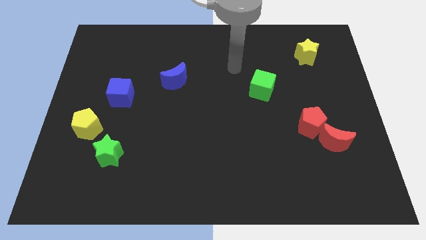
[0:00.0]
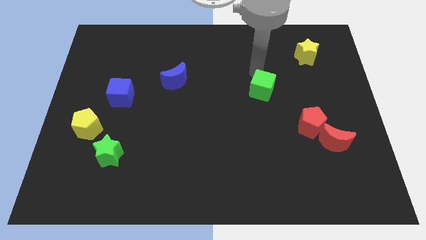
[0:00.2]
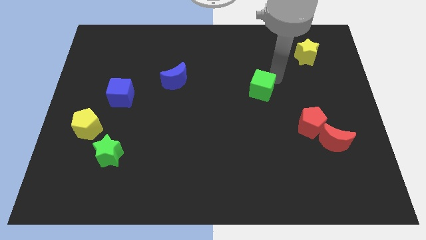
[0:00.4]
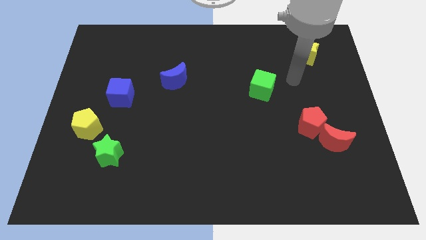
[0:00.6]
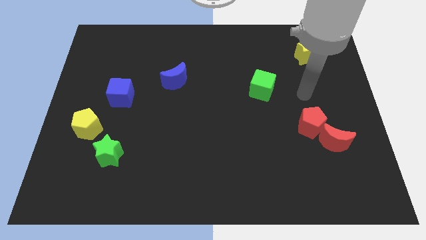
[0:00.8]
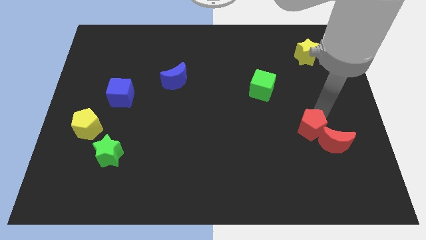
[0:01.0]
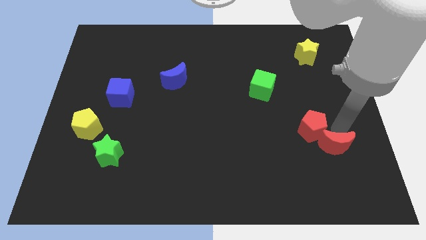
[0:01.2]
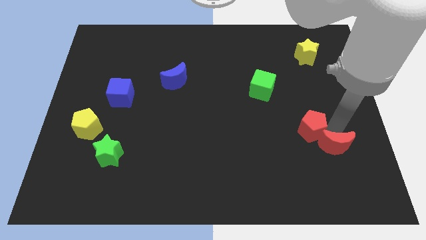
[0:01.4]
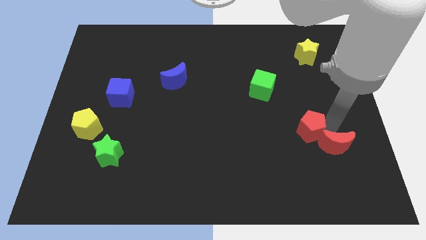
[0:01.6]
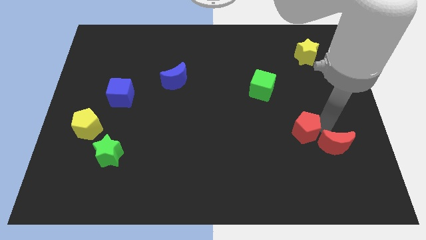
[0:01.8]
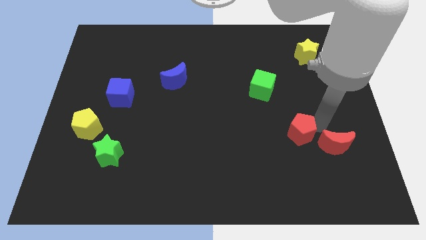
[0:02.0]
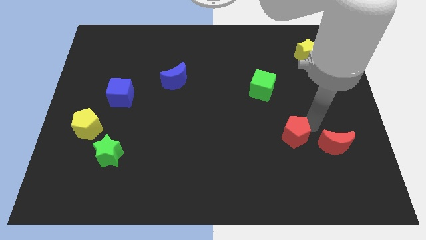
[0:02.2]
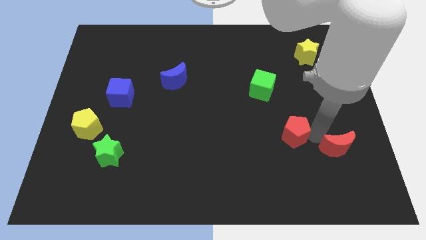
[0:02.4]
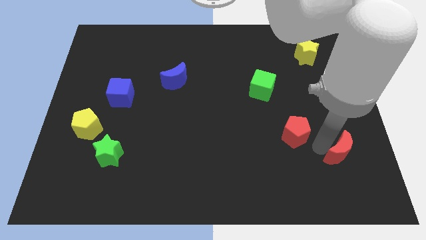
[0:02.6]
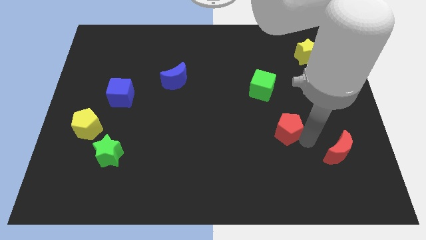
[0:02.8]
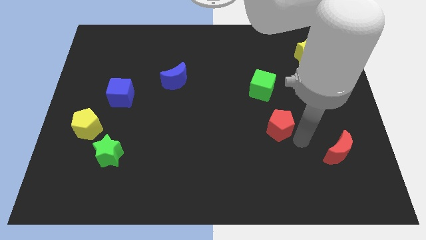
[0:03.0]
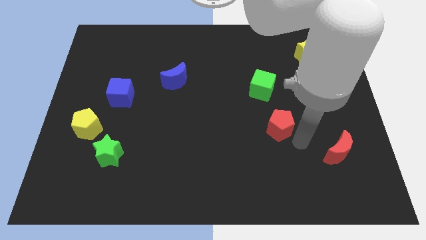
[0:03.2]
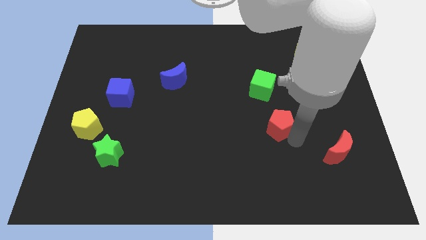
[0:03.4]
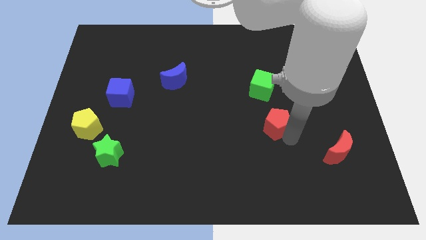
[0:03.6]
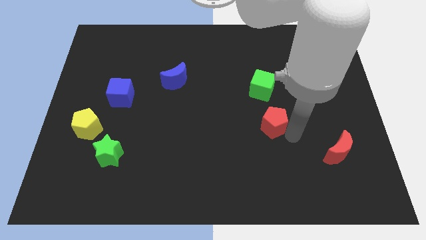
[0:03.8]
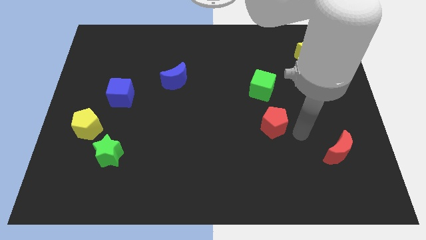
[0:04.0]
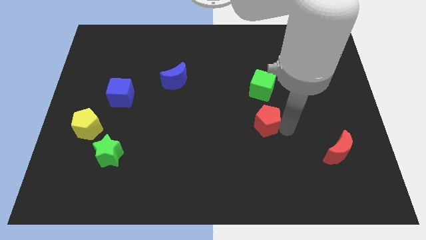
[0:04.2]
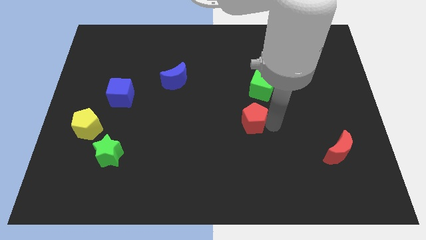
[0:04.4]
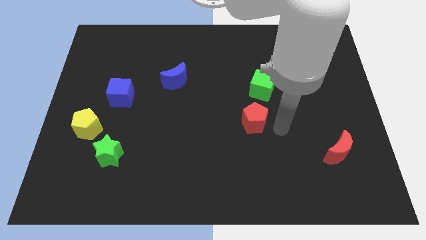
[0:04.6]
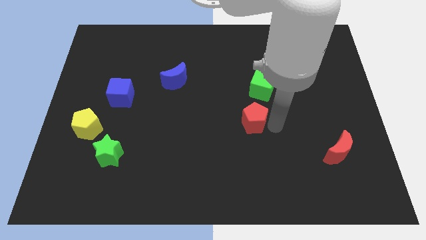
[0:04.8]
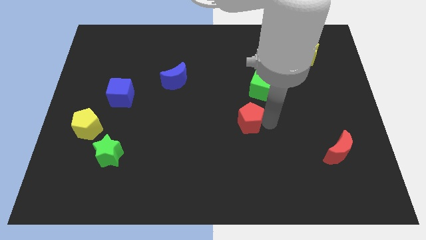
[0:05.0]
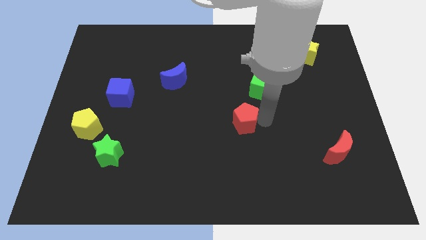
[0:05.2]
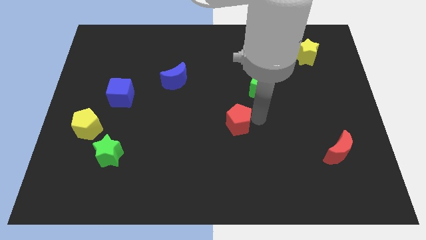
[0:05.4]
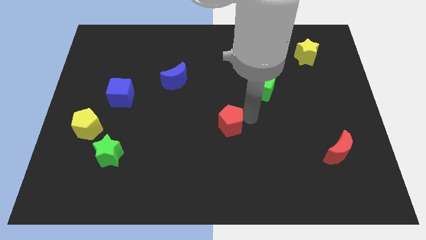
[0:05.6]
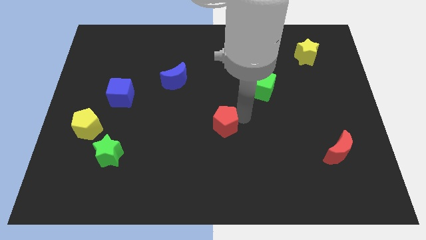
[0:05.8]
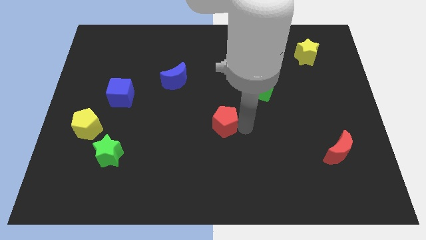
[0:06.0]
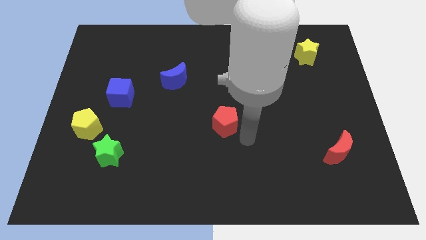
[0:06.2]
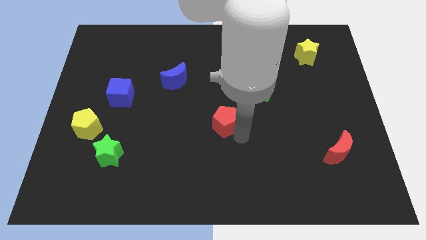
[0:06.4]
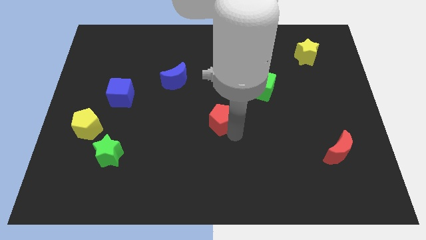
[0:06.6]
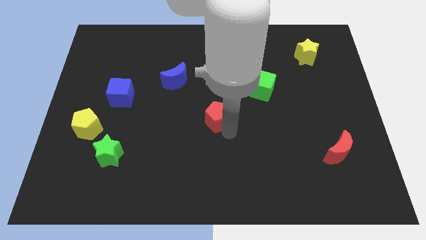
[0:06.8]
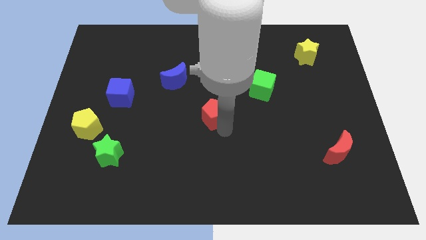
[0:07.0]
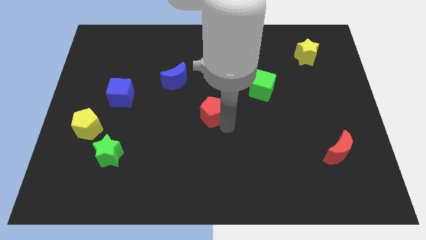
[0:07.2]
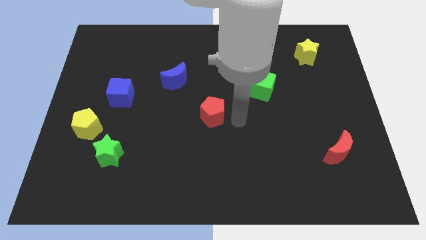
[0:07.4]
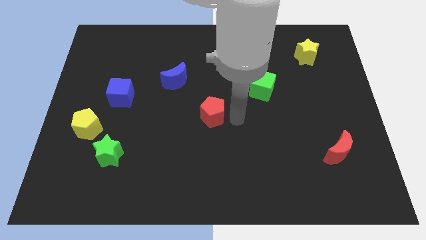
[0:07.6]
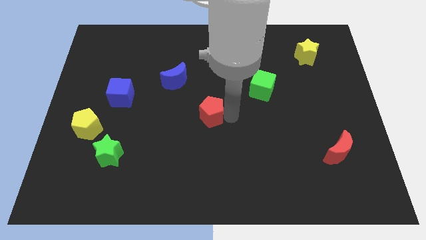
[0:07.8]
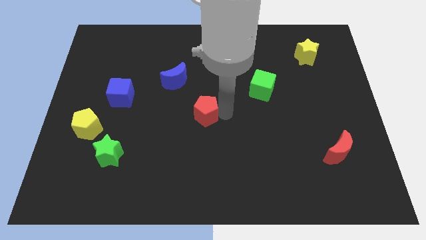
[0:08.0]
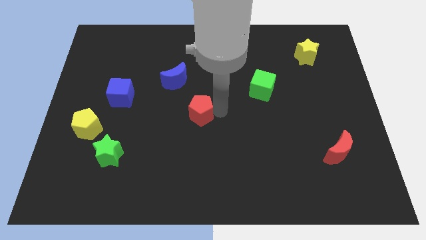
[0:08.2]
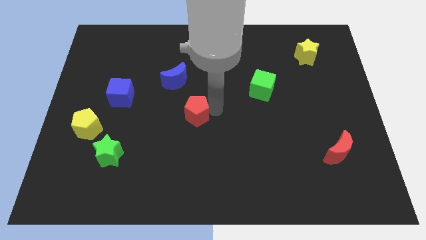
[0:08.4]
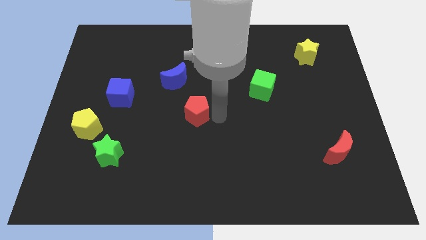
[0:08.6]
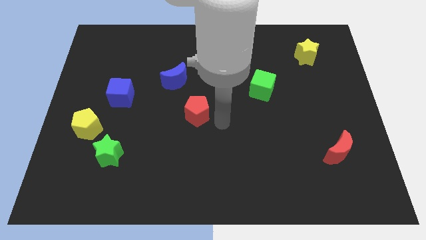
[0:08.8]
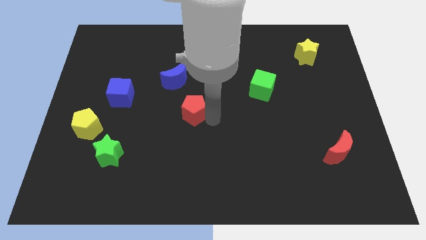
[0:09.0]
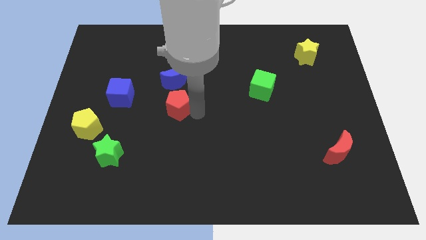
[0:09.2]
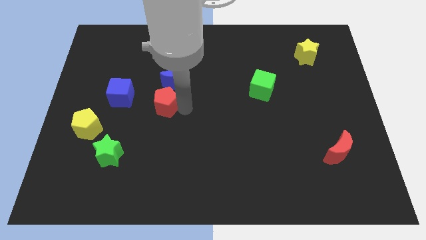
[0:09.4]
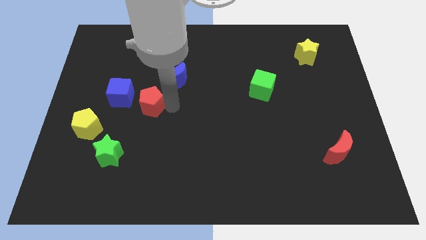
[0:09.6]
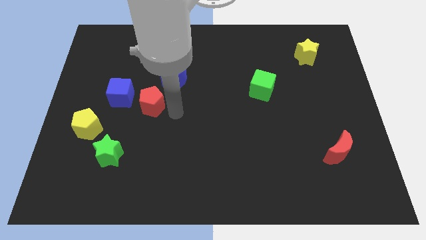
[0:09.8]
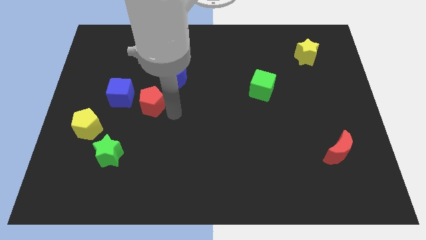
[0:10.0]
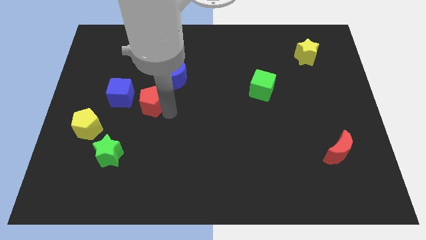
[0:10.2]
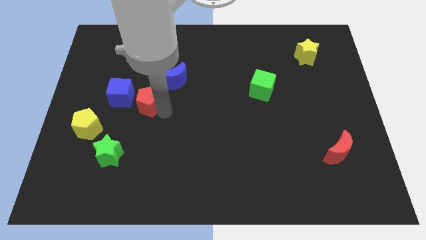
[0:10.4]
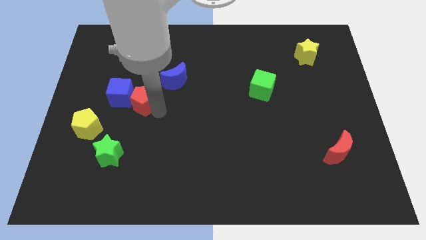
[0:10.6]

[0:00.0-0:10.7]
slide the red pentagon next to the blue cube

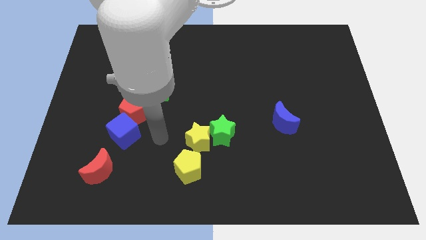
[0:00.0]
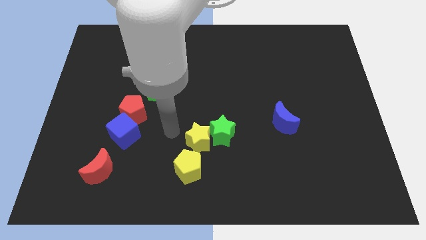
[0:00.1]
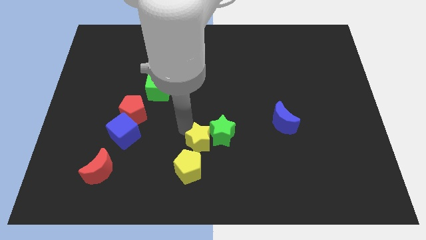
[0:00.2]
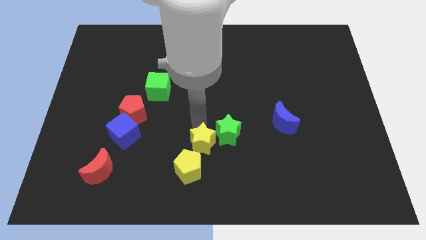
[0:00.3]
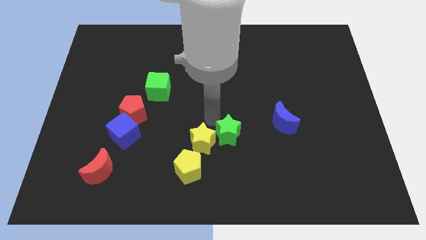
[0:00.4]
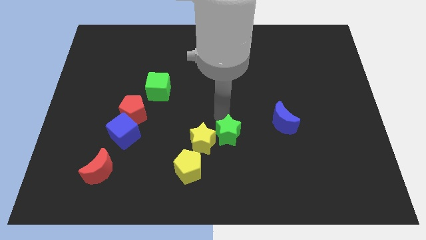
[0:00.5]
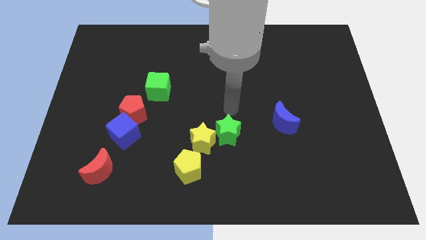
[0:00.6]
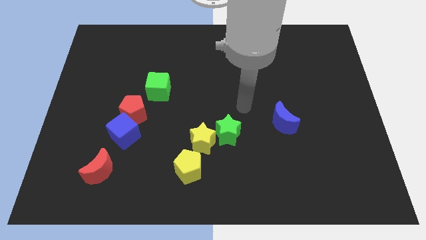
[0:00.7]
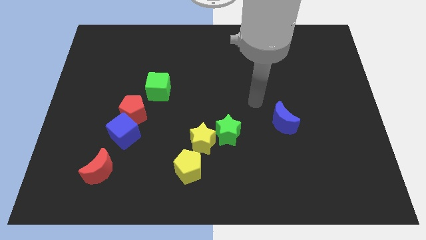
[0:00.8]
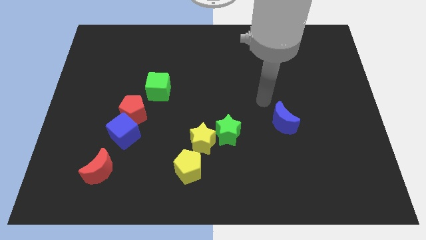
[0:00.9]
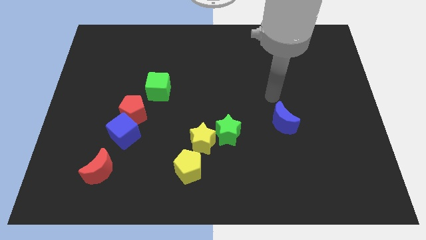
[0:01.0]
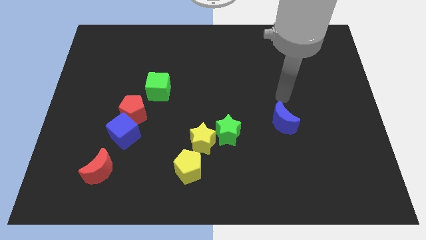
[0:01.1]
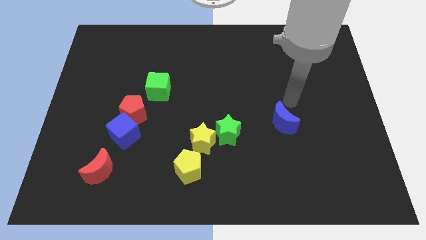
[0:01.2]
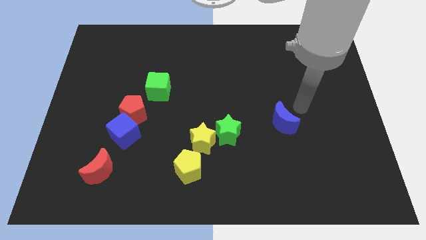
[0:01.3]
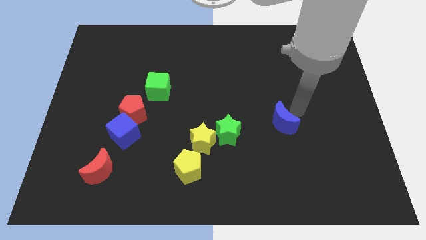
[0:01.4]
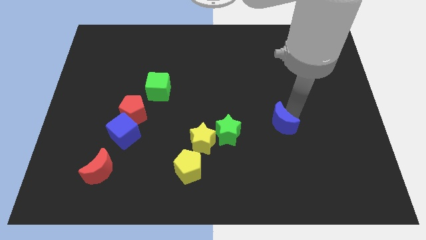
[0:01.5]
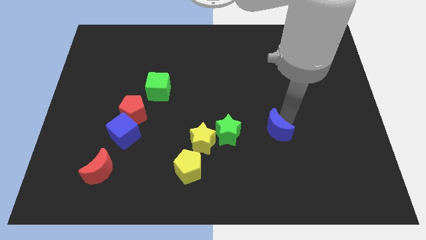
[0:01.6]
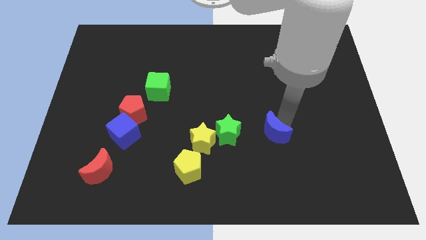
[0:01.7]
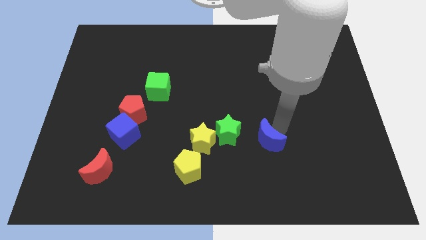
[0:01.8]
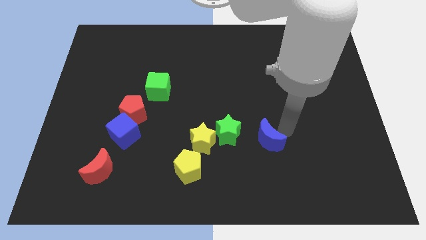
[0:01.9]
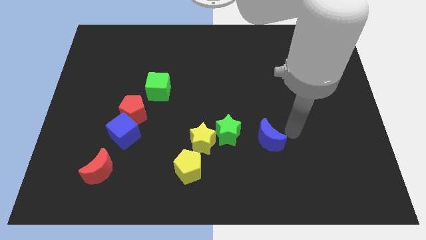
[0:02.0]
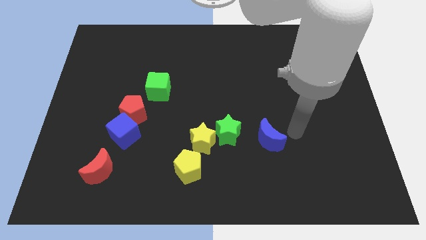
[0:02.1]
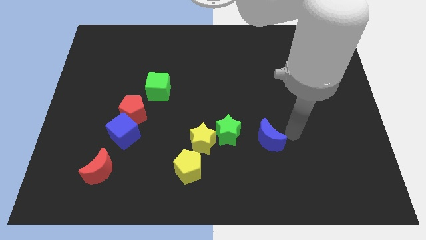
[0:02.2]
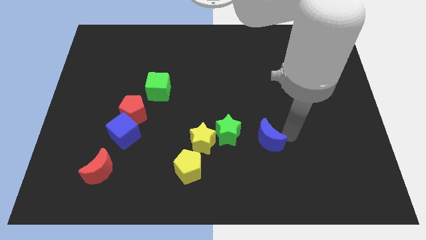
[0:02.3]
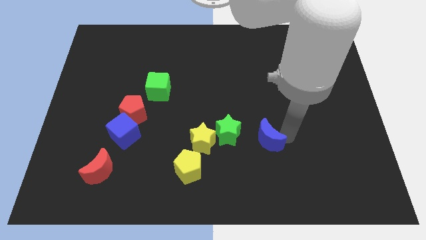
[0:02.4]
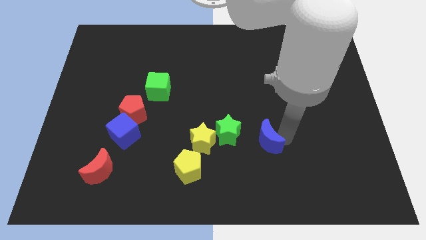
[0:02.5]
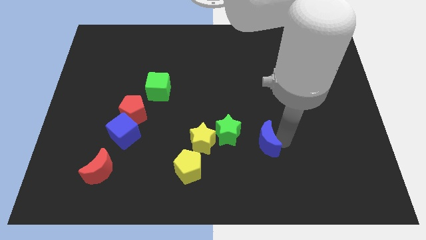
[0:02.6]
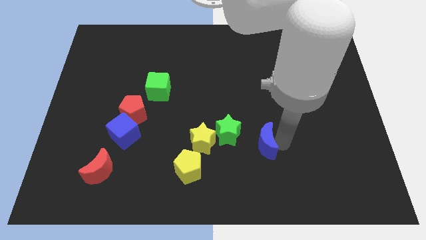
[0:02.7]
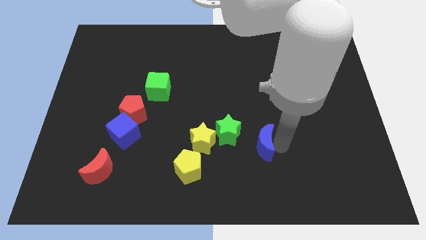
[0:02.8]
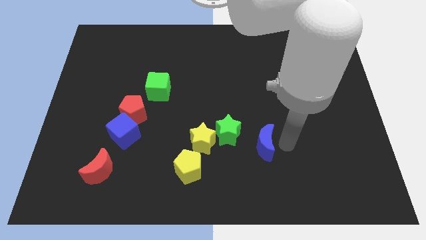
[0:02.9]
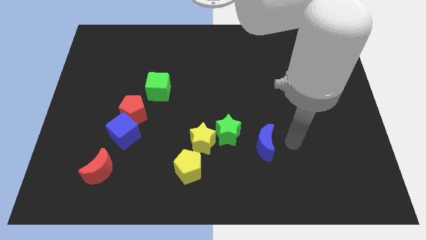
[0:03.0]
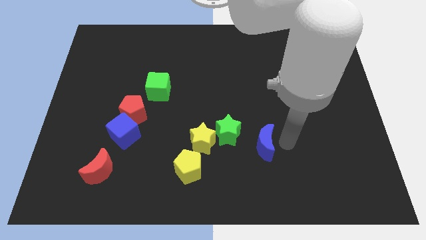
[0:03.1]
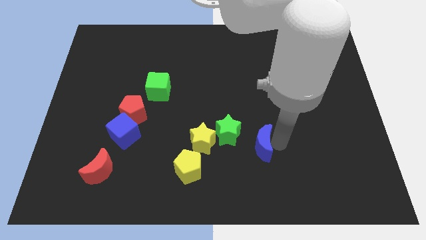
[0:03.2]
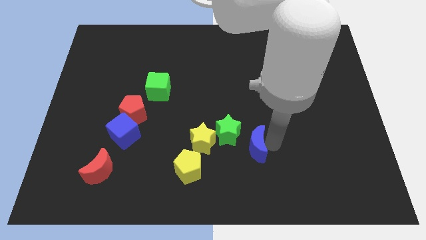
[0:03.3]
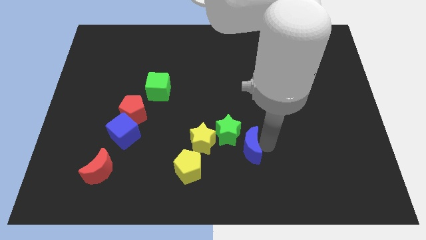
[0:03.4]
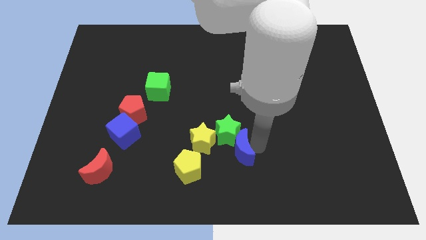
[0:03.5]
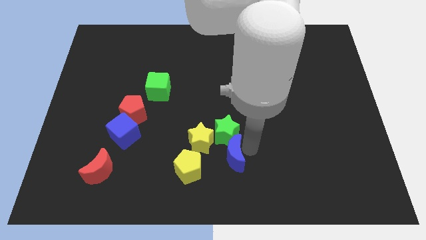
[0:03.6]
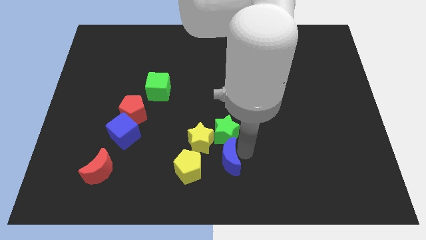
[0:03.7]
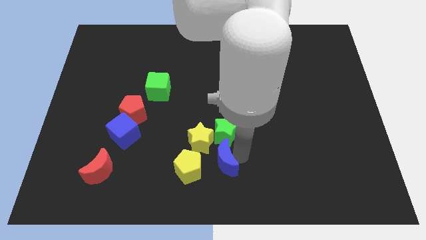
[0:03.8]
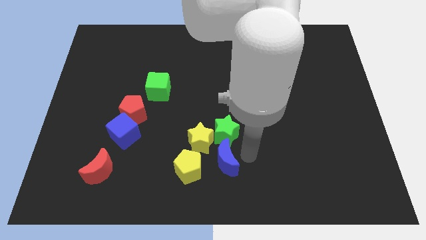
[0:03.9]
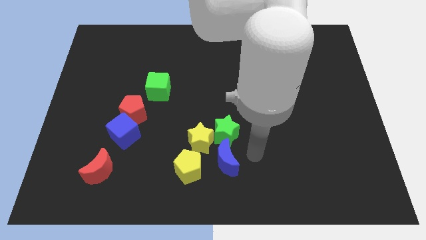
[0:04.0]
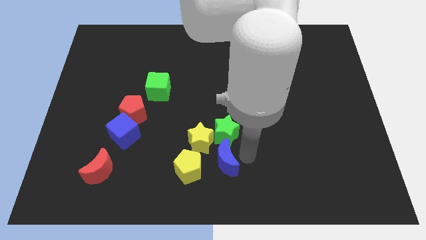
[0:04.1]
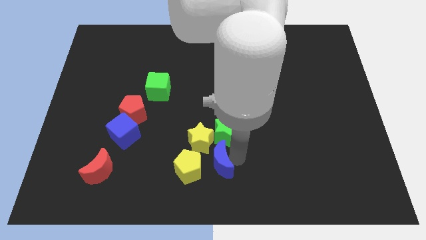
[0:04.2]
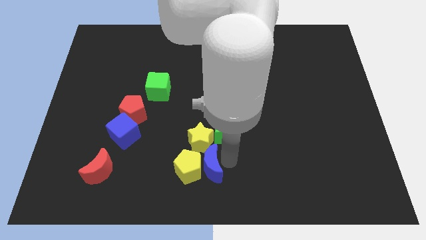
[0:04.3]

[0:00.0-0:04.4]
put the blue moon next to the yellow pentagon
